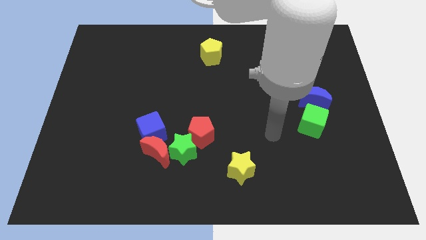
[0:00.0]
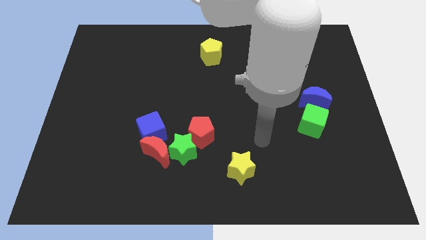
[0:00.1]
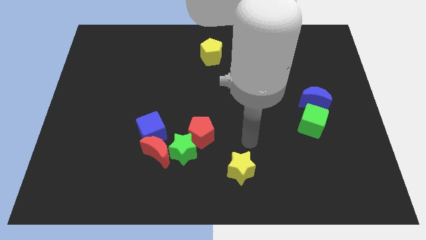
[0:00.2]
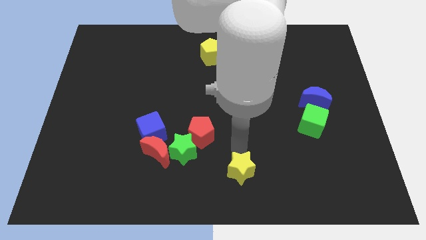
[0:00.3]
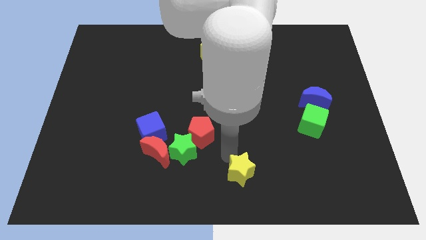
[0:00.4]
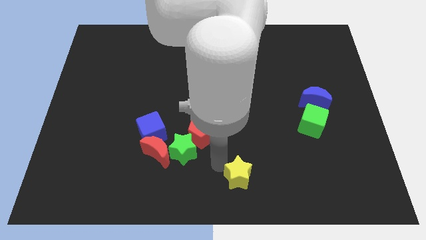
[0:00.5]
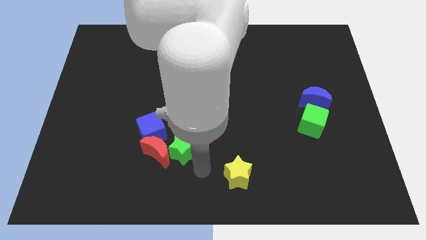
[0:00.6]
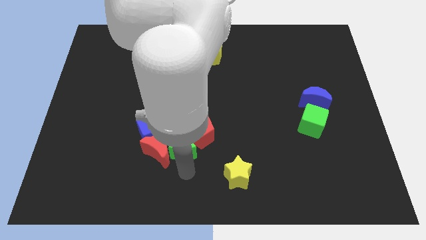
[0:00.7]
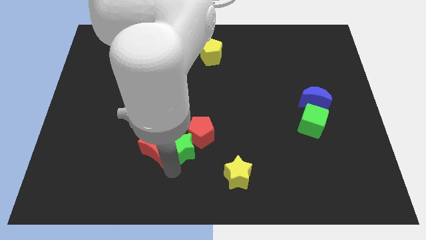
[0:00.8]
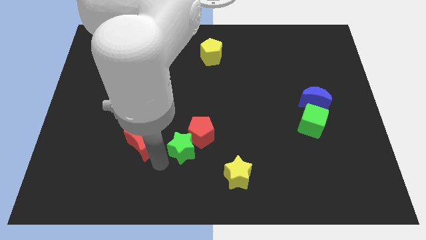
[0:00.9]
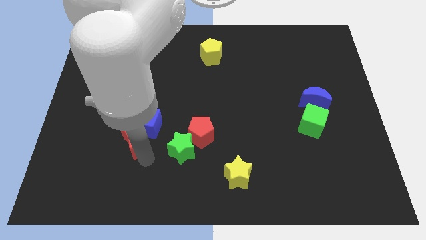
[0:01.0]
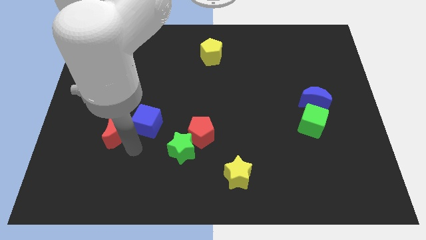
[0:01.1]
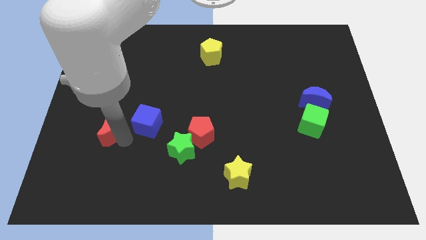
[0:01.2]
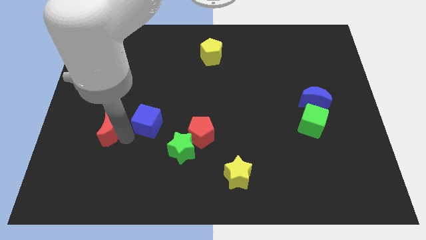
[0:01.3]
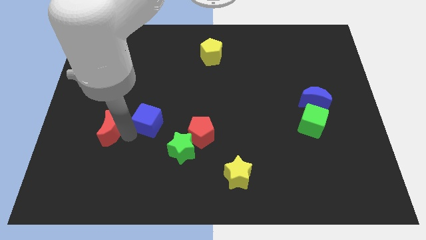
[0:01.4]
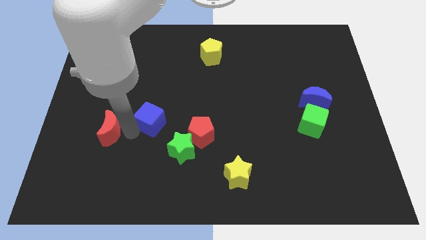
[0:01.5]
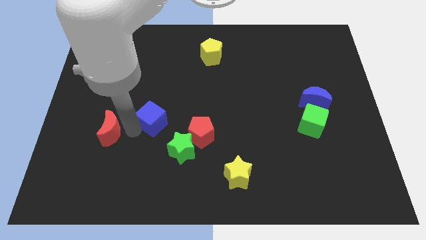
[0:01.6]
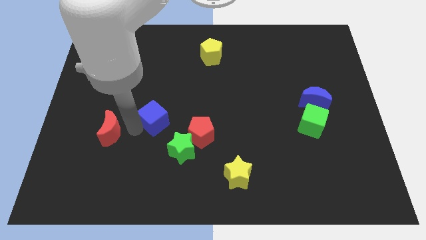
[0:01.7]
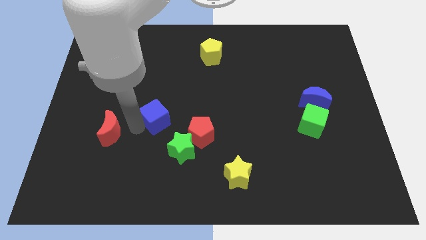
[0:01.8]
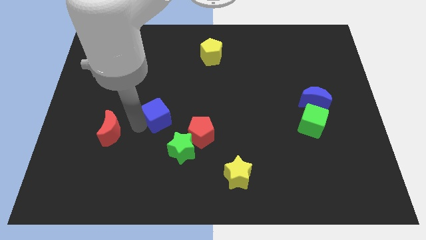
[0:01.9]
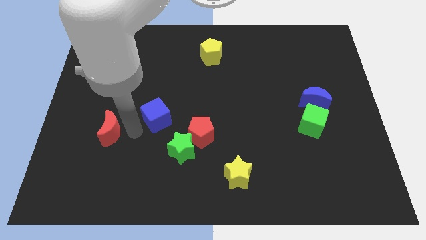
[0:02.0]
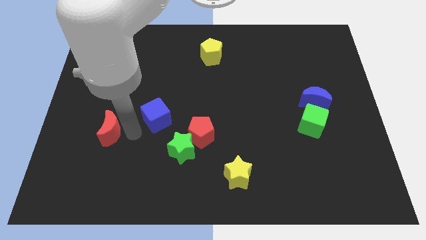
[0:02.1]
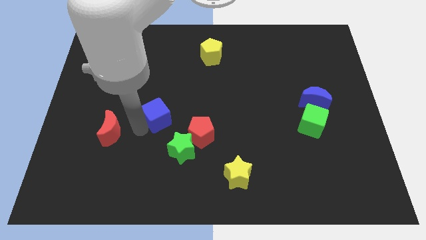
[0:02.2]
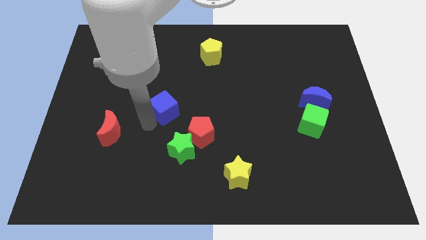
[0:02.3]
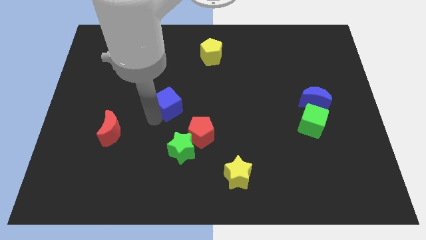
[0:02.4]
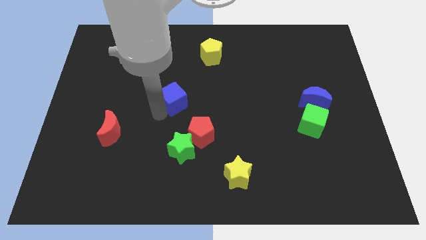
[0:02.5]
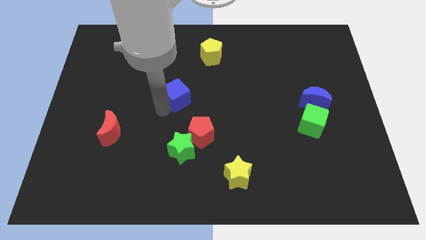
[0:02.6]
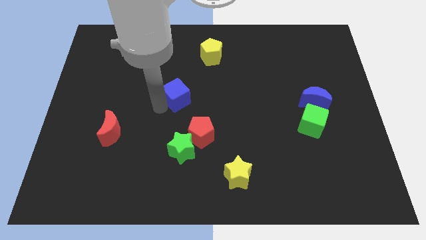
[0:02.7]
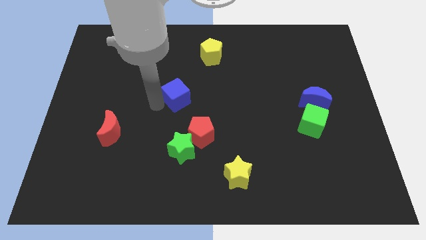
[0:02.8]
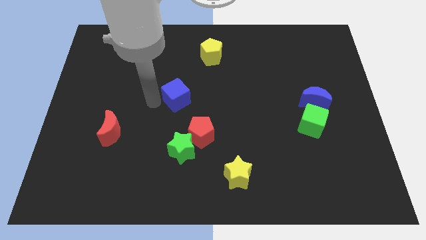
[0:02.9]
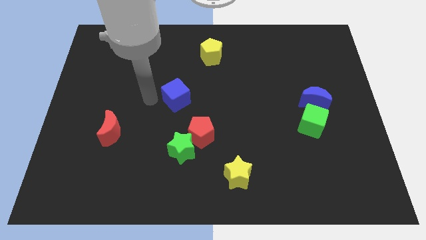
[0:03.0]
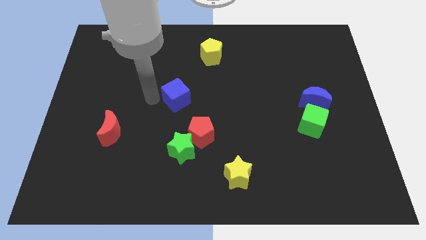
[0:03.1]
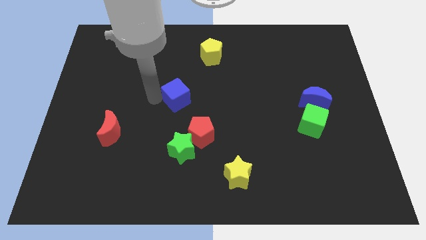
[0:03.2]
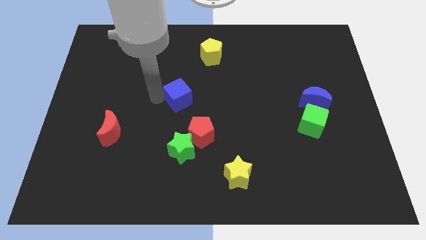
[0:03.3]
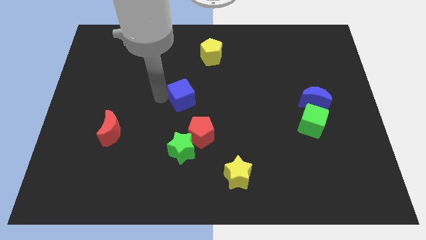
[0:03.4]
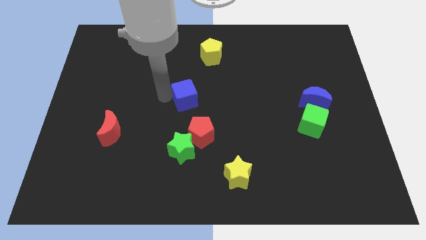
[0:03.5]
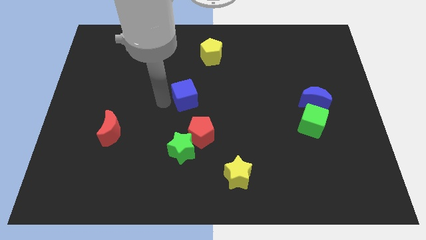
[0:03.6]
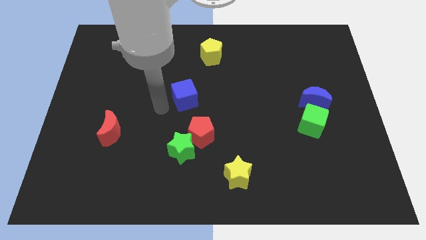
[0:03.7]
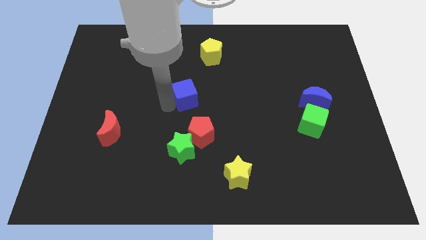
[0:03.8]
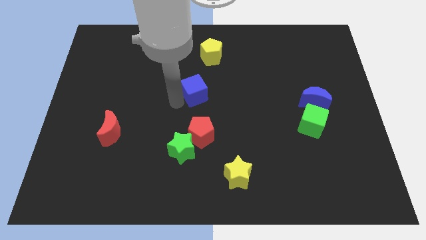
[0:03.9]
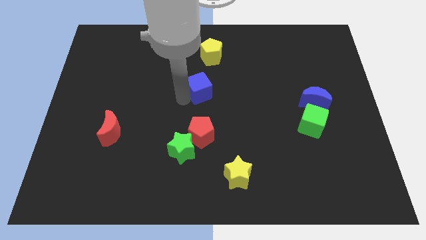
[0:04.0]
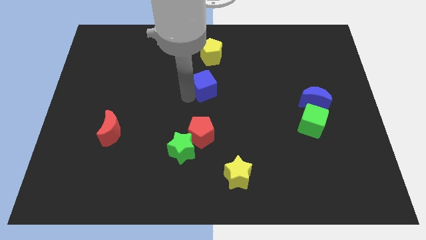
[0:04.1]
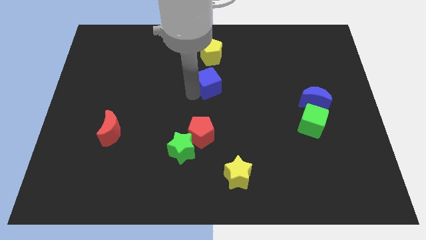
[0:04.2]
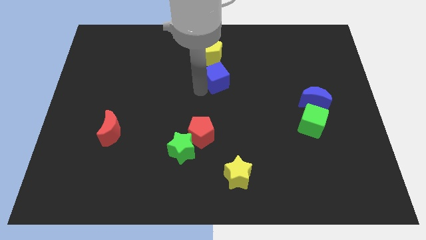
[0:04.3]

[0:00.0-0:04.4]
slide the blue cube diagonally upwards and to the right

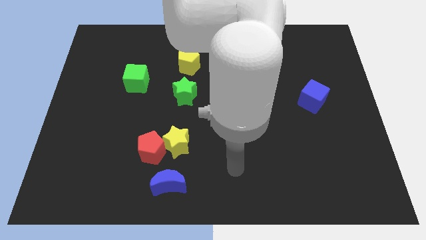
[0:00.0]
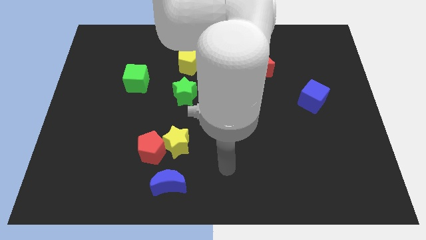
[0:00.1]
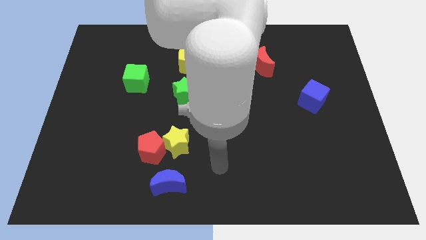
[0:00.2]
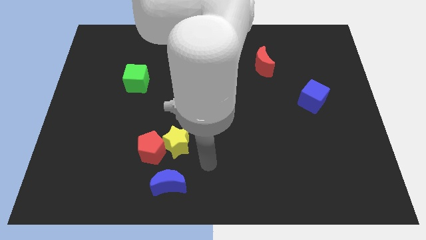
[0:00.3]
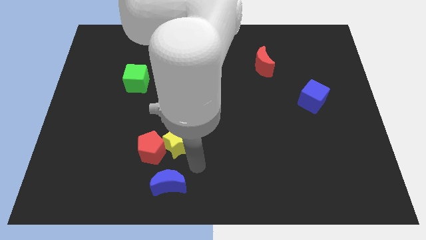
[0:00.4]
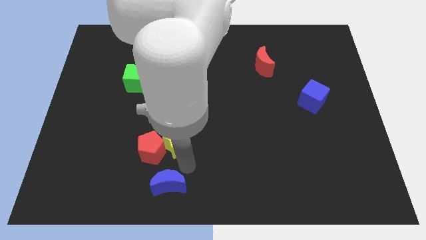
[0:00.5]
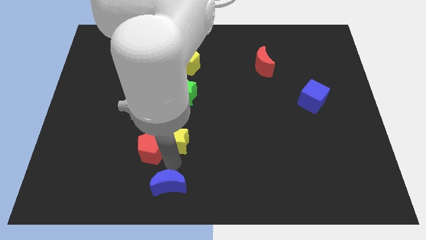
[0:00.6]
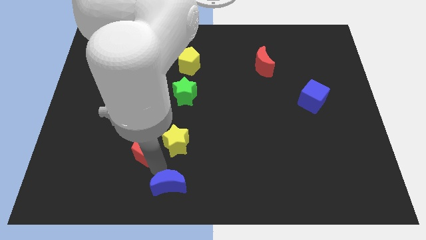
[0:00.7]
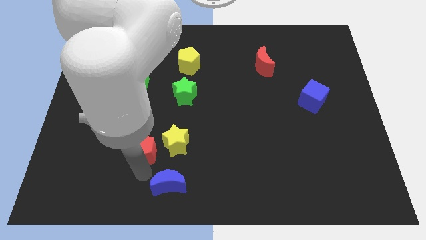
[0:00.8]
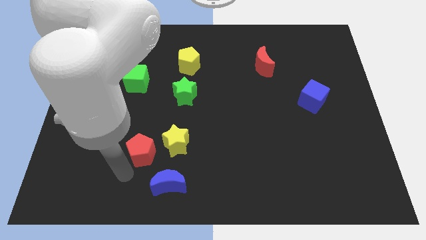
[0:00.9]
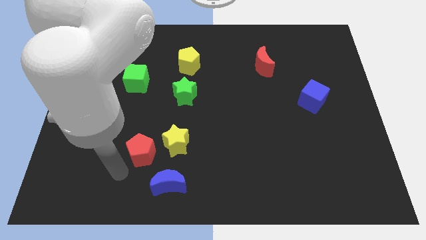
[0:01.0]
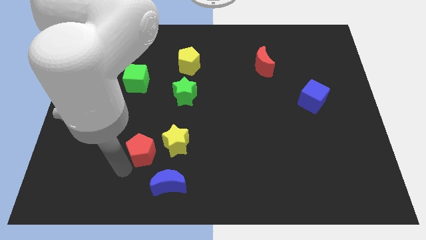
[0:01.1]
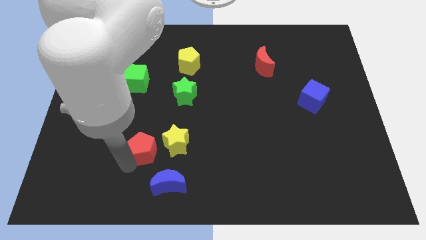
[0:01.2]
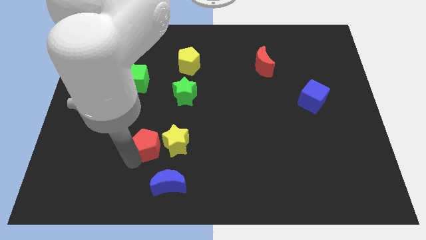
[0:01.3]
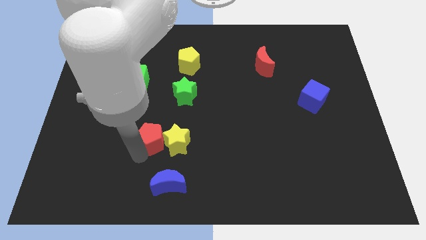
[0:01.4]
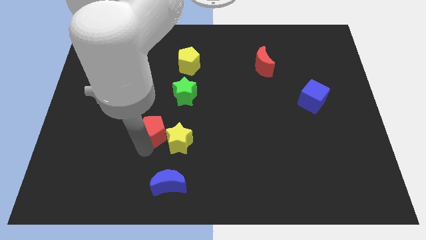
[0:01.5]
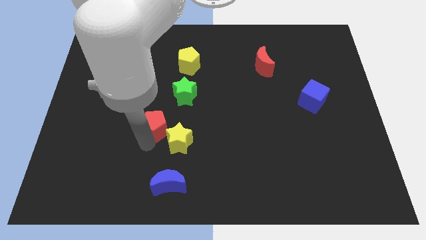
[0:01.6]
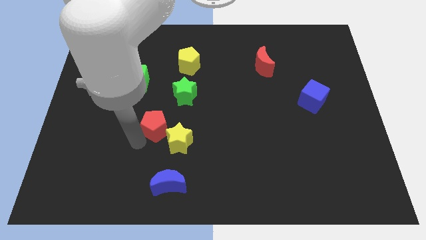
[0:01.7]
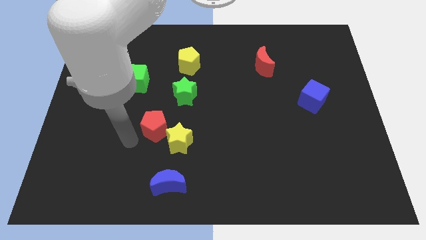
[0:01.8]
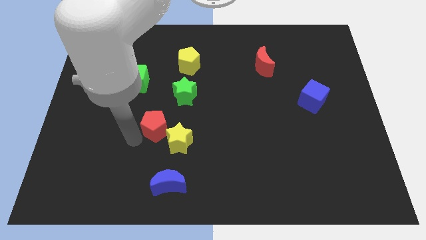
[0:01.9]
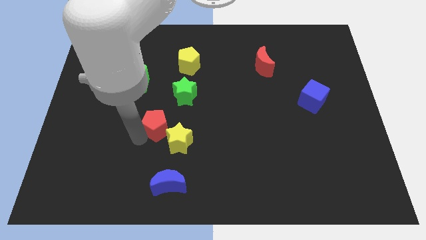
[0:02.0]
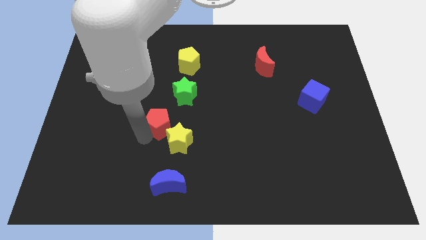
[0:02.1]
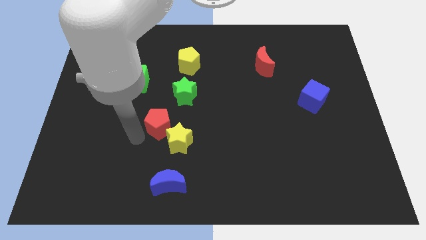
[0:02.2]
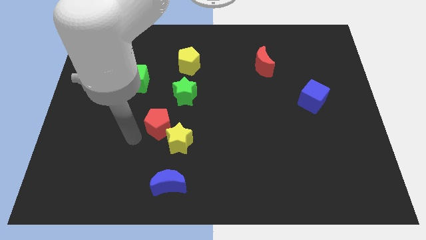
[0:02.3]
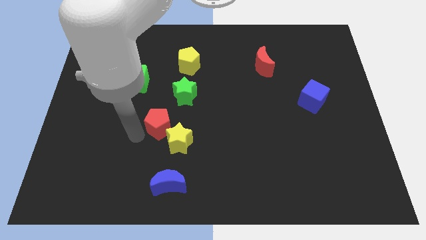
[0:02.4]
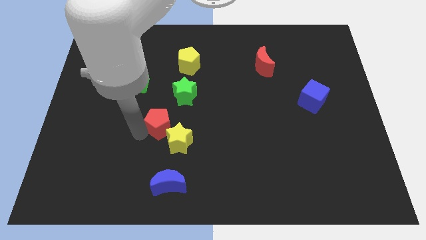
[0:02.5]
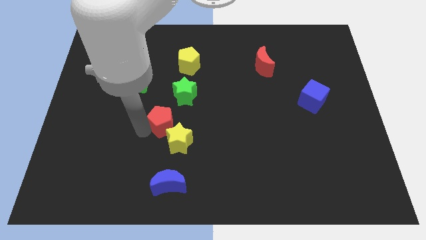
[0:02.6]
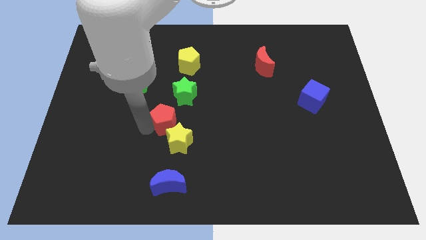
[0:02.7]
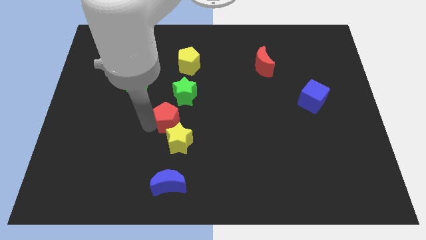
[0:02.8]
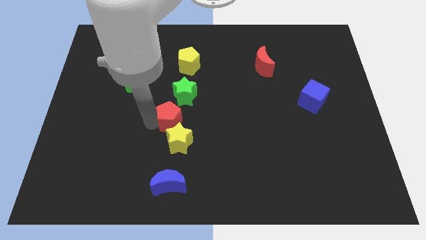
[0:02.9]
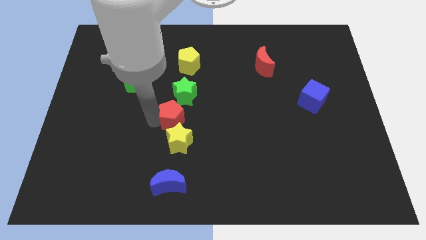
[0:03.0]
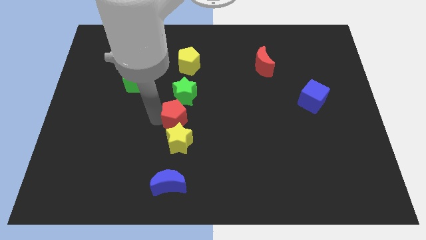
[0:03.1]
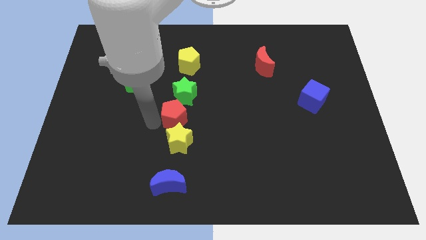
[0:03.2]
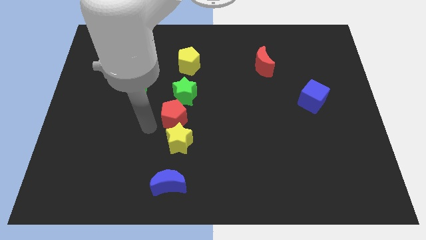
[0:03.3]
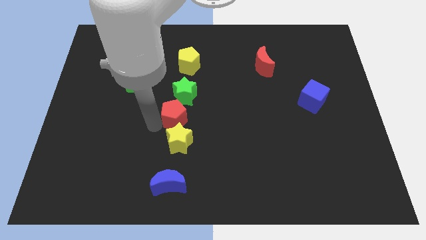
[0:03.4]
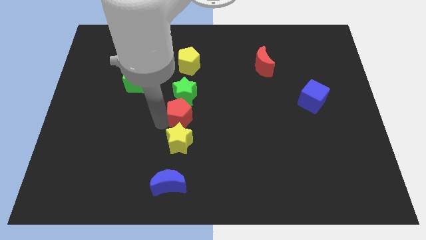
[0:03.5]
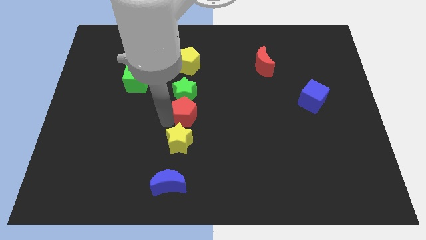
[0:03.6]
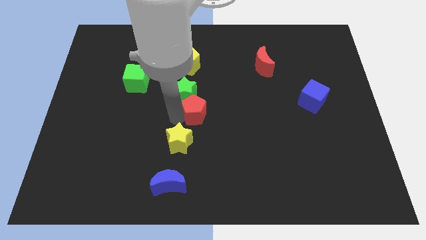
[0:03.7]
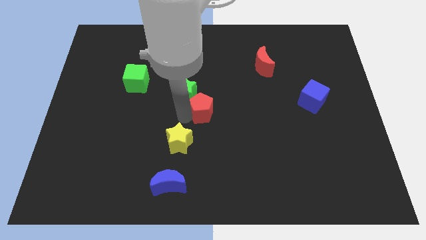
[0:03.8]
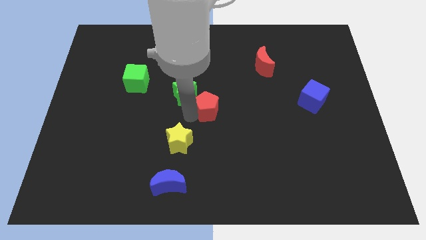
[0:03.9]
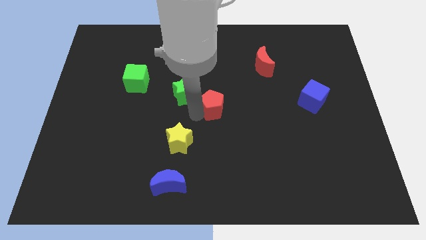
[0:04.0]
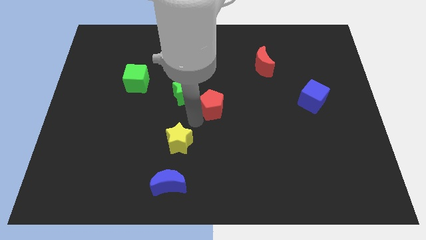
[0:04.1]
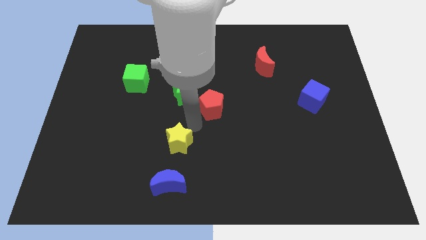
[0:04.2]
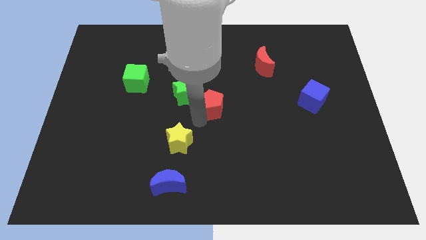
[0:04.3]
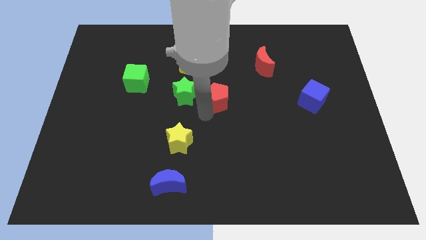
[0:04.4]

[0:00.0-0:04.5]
push the red pentagon diagonally upwards and right
